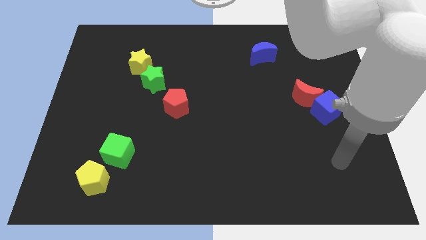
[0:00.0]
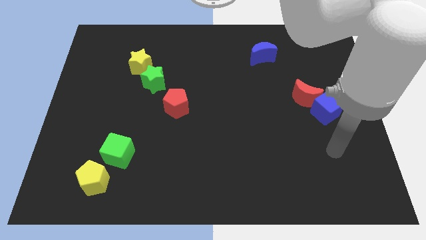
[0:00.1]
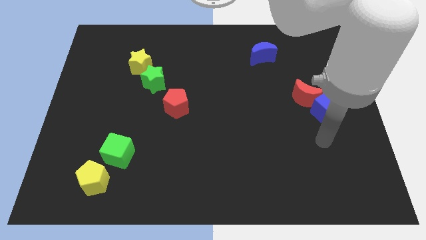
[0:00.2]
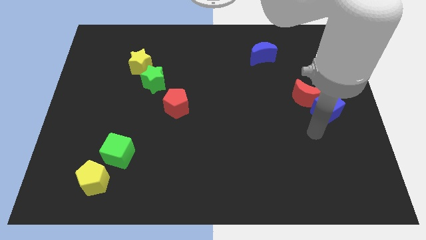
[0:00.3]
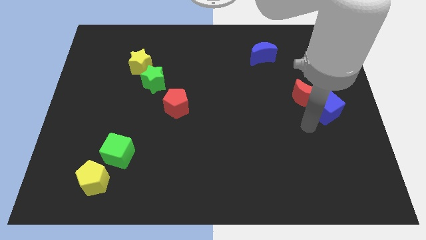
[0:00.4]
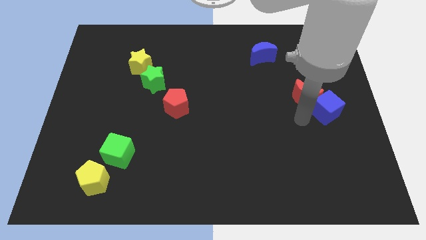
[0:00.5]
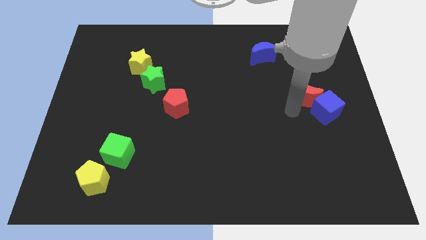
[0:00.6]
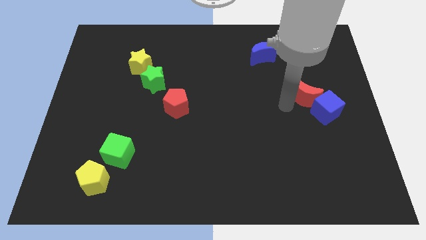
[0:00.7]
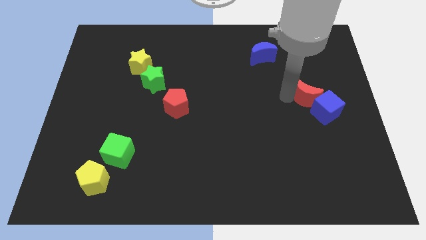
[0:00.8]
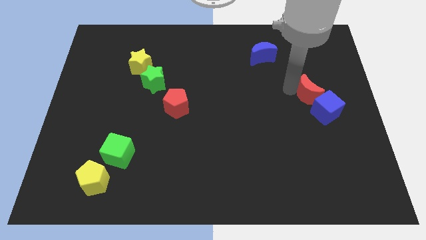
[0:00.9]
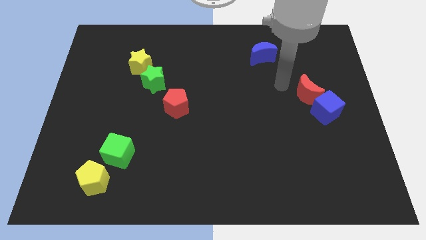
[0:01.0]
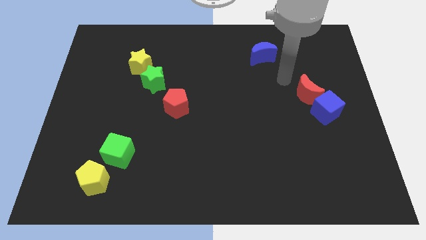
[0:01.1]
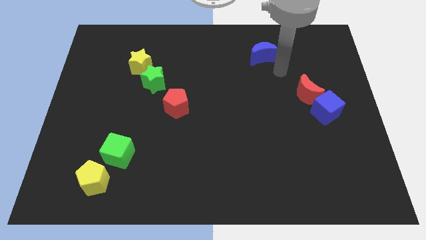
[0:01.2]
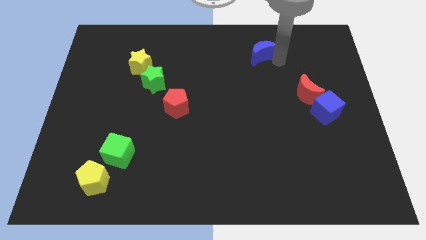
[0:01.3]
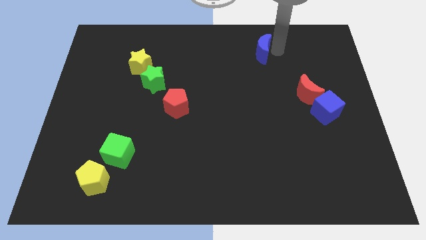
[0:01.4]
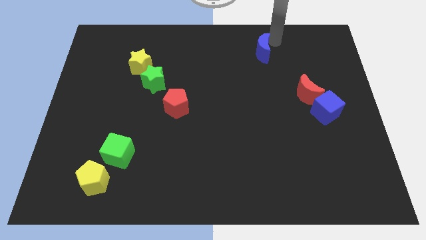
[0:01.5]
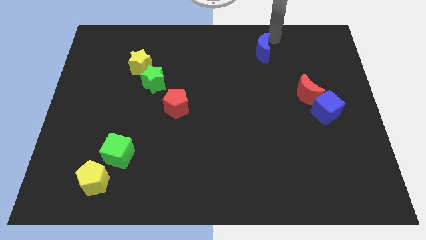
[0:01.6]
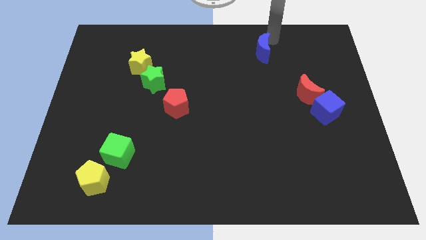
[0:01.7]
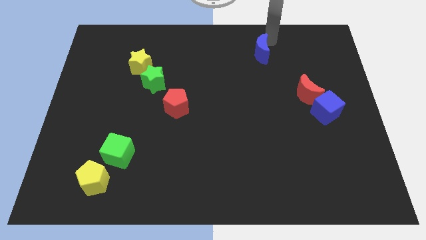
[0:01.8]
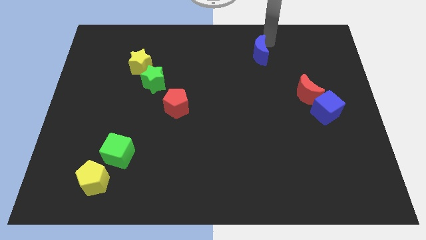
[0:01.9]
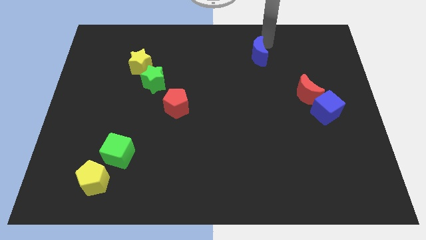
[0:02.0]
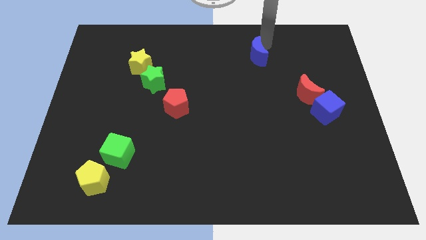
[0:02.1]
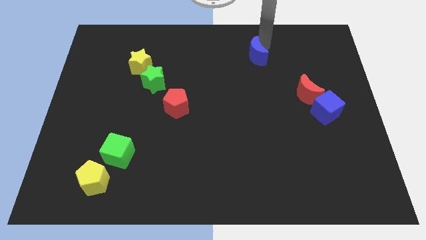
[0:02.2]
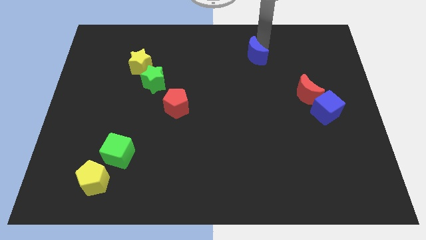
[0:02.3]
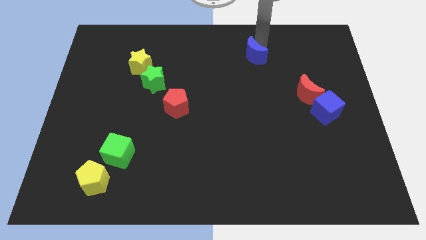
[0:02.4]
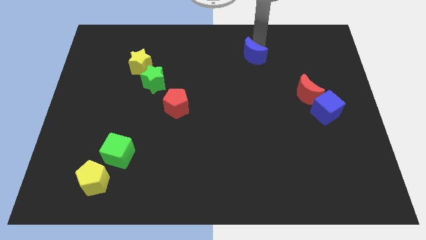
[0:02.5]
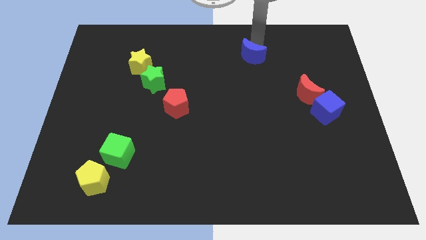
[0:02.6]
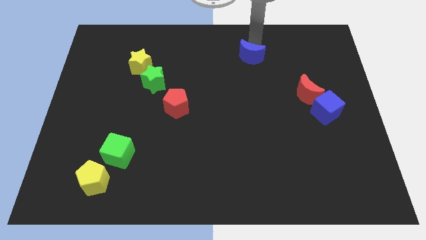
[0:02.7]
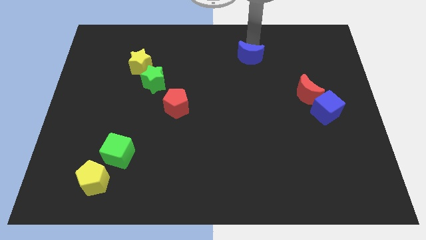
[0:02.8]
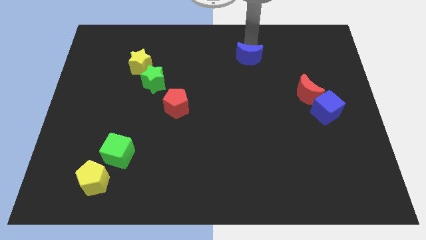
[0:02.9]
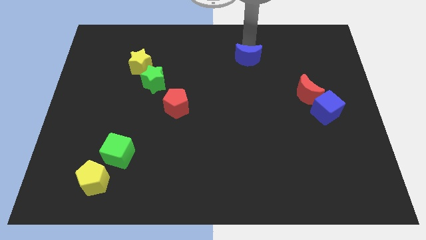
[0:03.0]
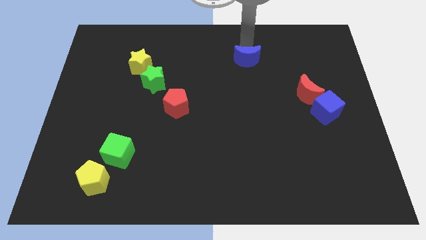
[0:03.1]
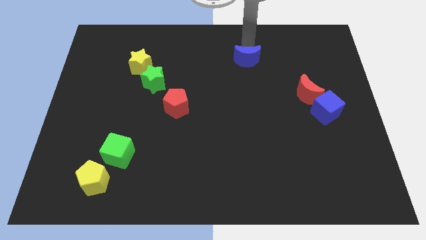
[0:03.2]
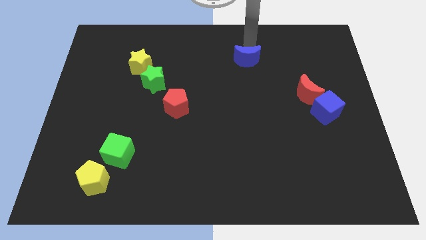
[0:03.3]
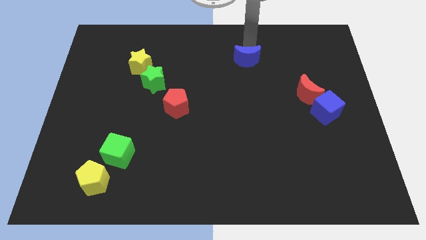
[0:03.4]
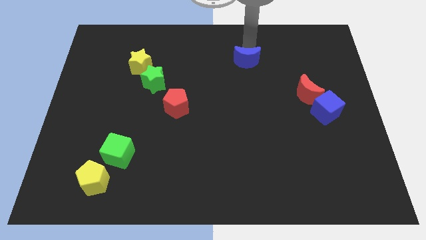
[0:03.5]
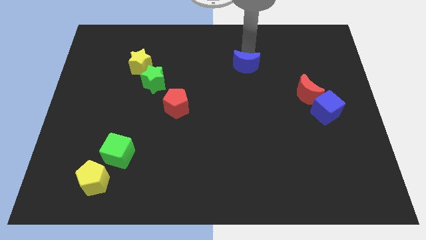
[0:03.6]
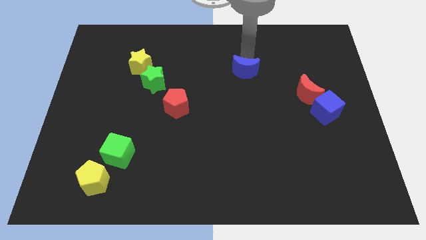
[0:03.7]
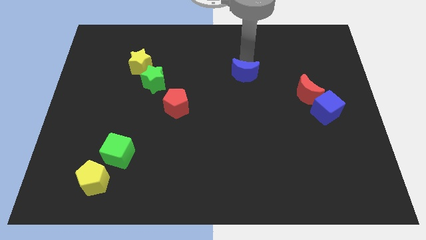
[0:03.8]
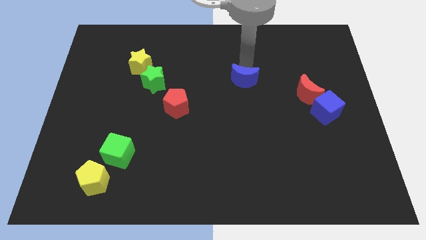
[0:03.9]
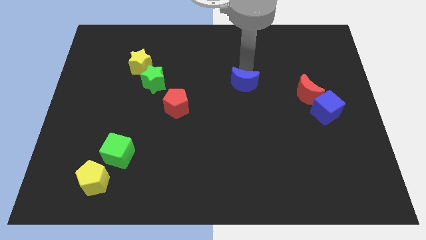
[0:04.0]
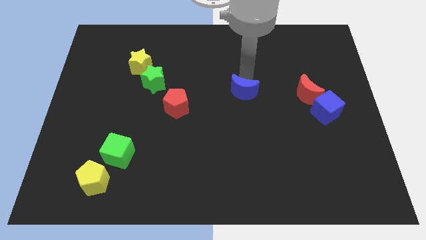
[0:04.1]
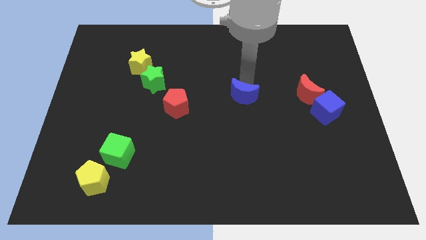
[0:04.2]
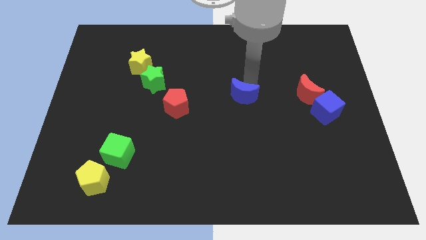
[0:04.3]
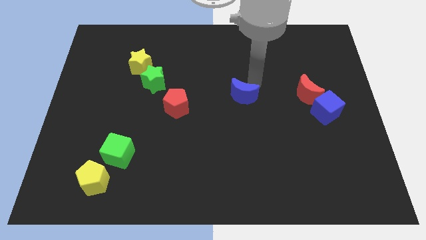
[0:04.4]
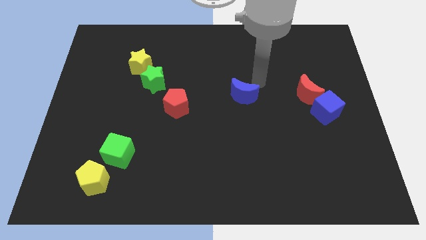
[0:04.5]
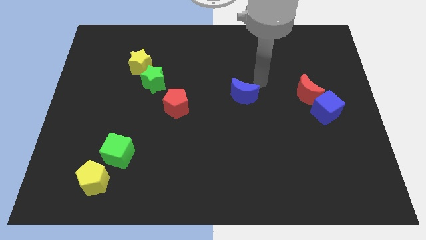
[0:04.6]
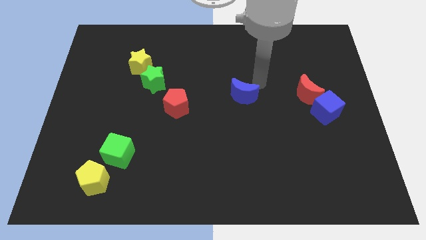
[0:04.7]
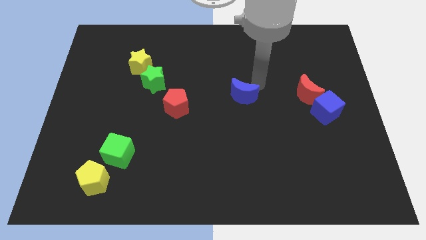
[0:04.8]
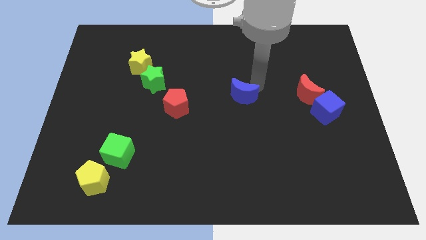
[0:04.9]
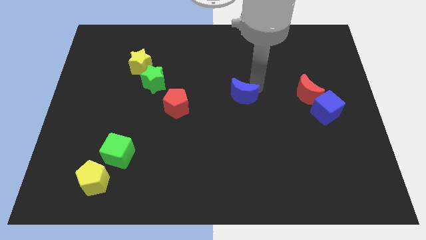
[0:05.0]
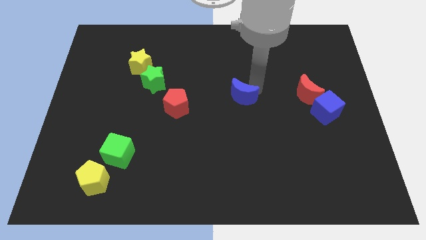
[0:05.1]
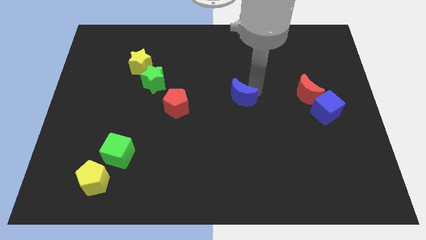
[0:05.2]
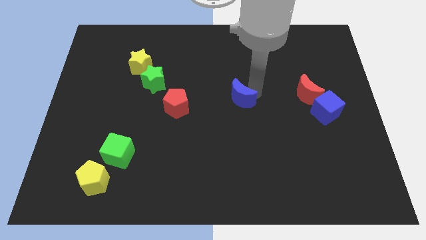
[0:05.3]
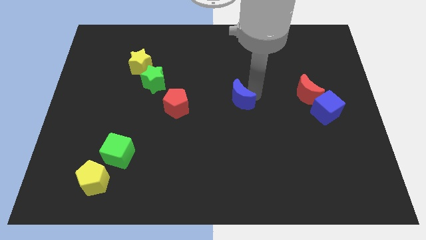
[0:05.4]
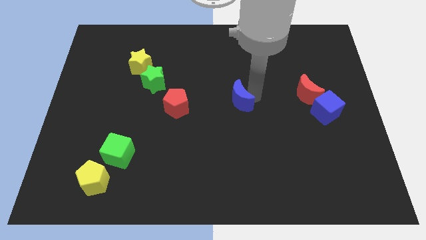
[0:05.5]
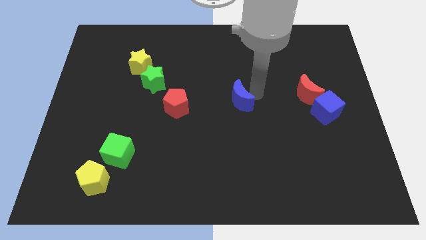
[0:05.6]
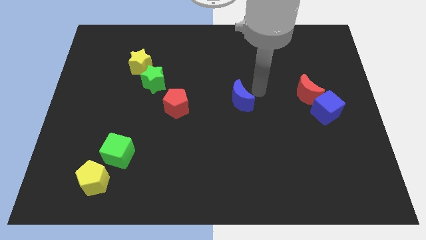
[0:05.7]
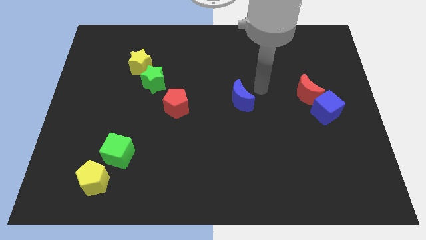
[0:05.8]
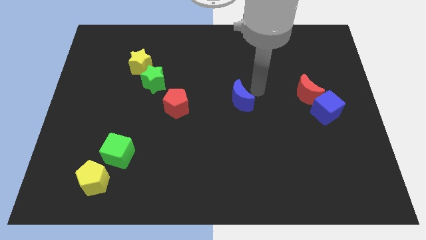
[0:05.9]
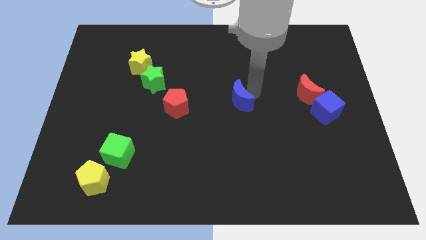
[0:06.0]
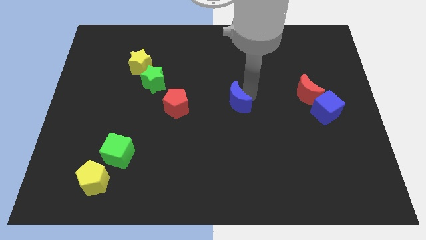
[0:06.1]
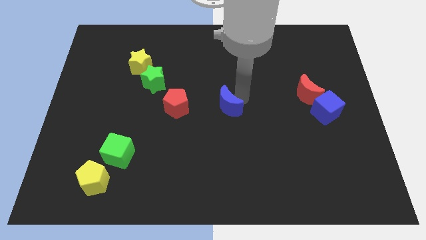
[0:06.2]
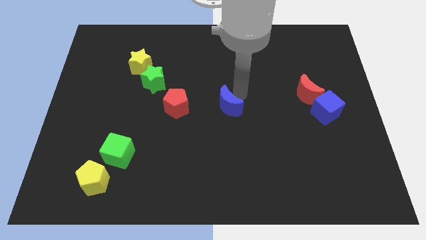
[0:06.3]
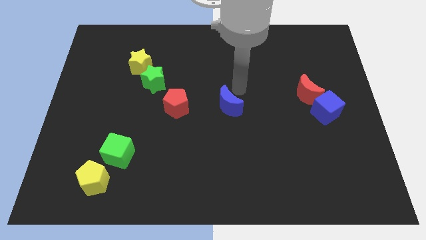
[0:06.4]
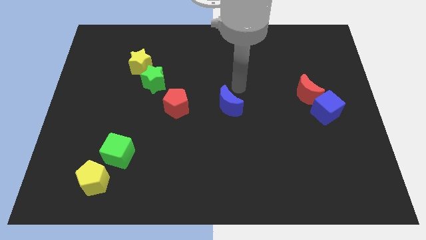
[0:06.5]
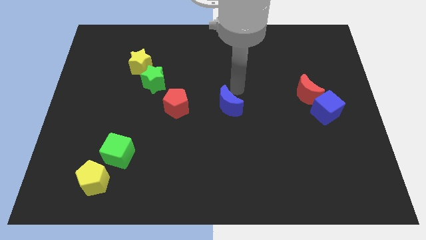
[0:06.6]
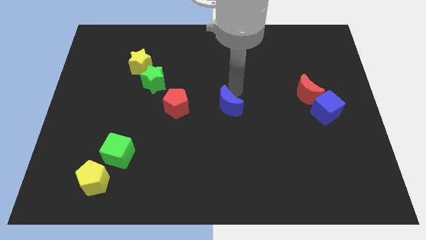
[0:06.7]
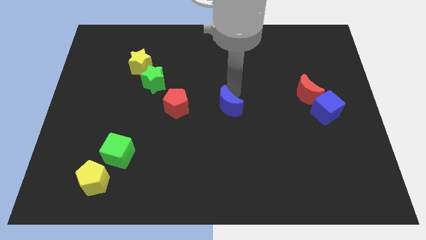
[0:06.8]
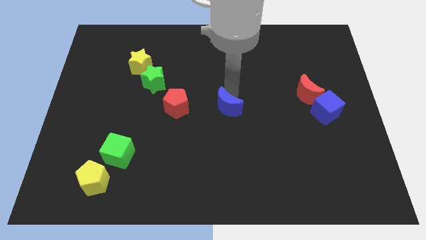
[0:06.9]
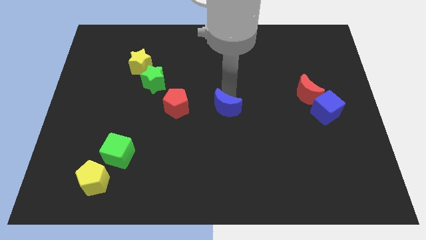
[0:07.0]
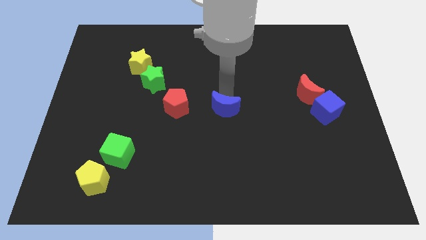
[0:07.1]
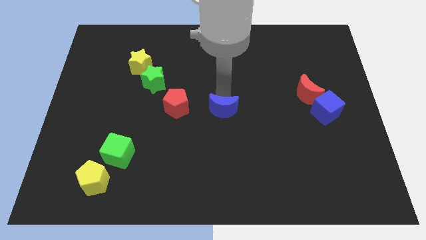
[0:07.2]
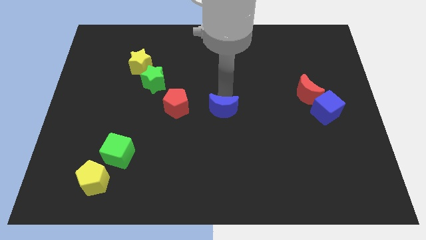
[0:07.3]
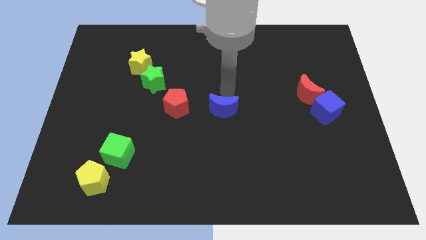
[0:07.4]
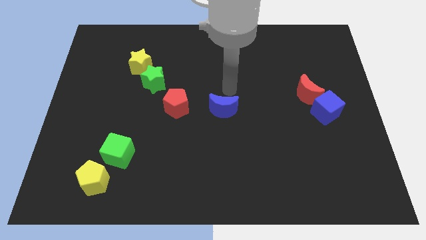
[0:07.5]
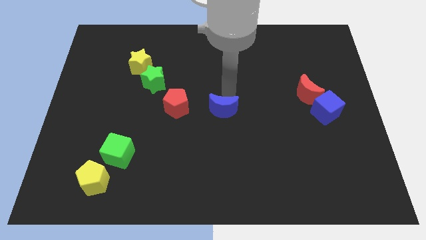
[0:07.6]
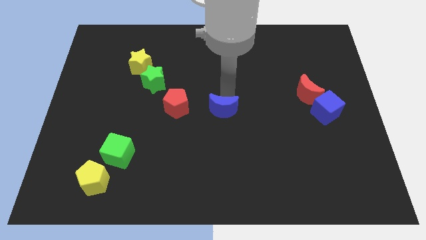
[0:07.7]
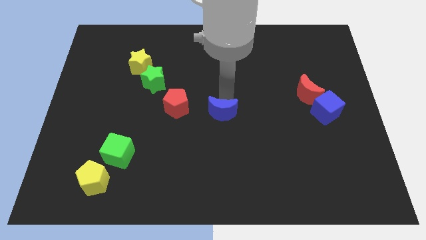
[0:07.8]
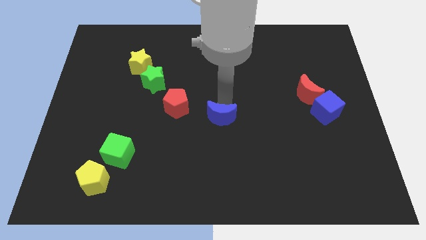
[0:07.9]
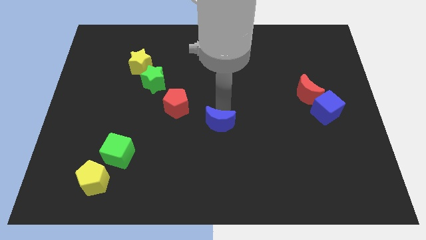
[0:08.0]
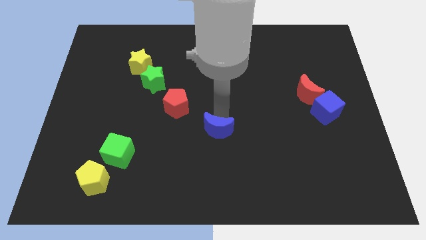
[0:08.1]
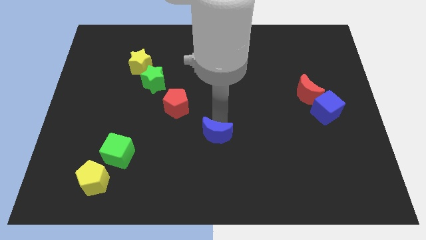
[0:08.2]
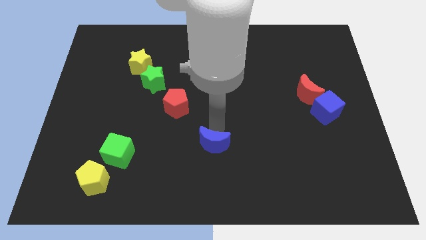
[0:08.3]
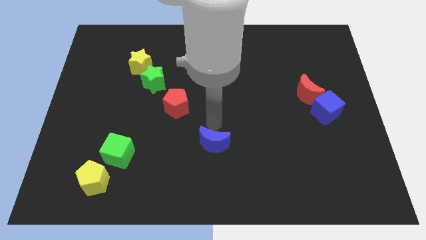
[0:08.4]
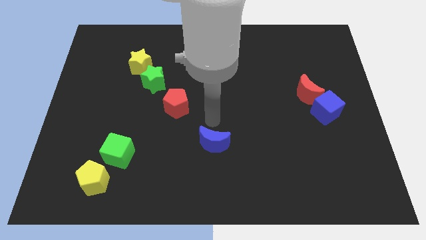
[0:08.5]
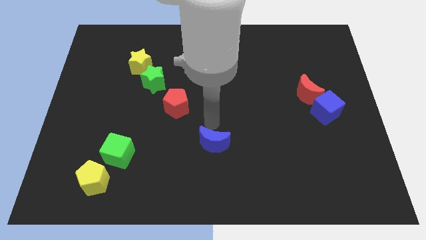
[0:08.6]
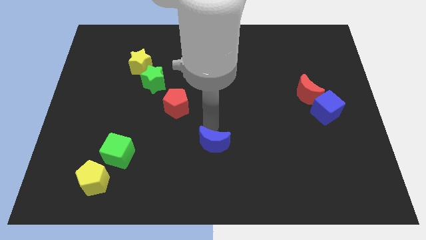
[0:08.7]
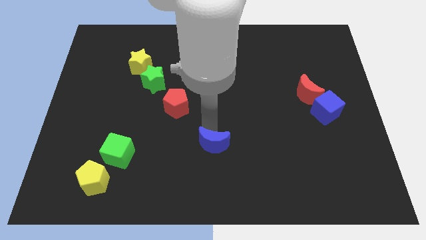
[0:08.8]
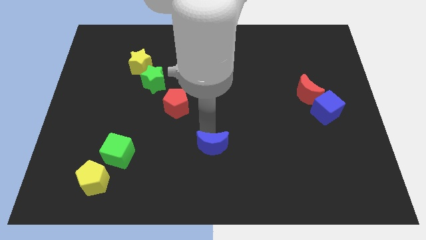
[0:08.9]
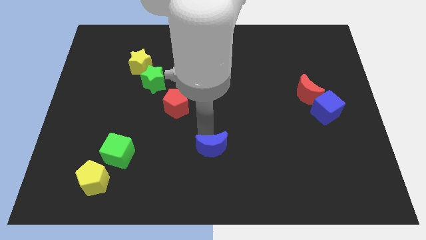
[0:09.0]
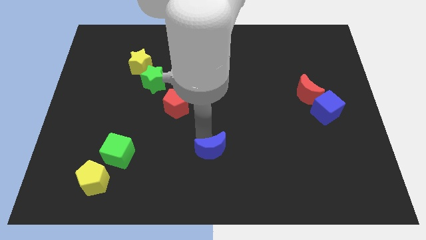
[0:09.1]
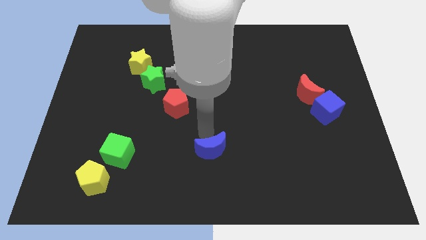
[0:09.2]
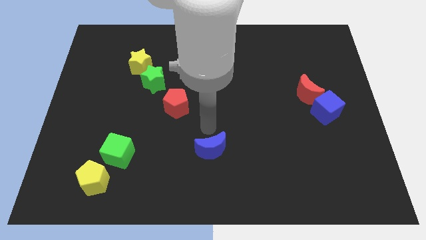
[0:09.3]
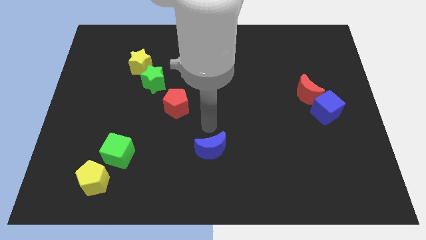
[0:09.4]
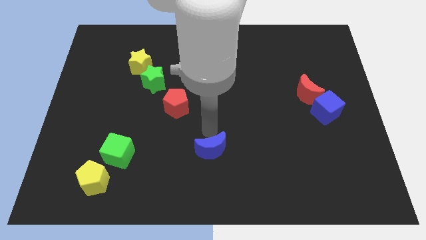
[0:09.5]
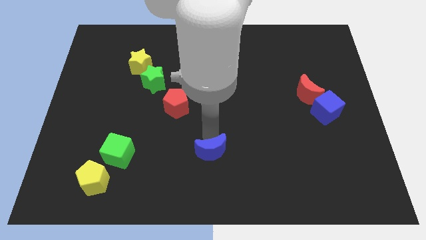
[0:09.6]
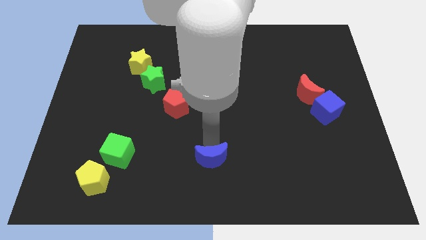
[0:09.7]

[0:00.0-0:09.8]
push the blue moon to the bottom
